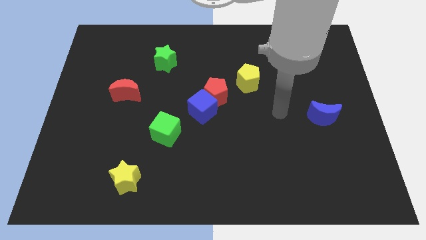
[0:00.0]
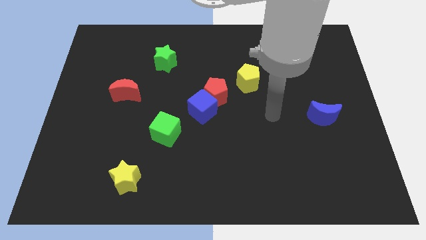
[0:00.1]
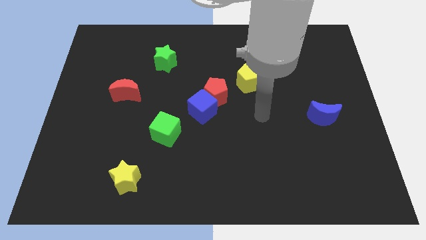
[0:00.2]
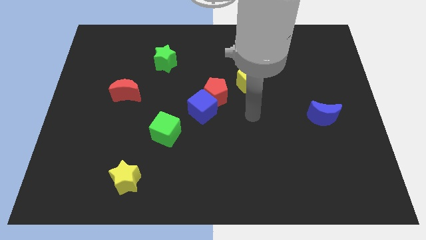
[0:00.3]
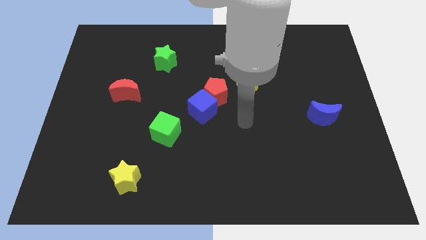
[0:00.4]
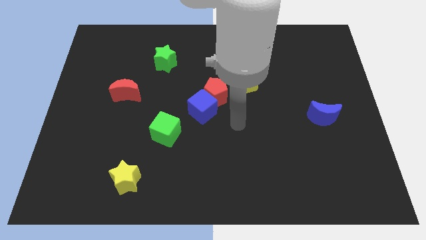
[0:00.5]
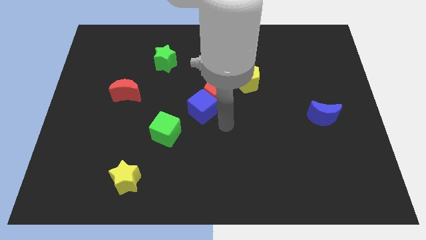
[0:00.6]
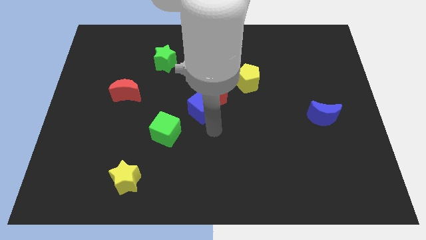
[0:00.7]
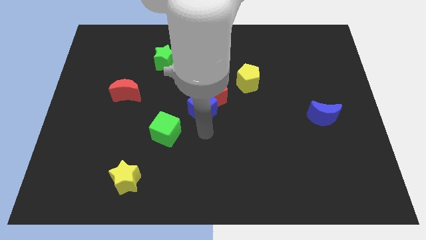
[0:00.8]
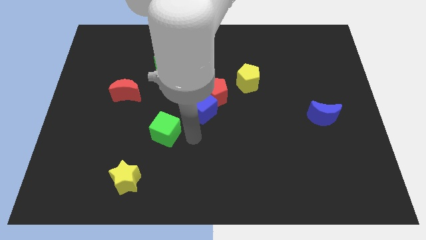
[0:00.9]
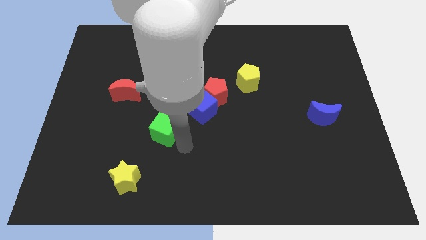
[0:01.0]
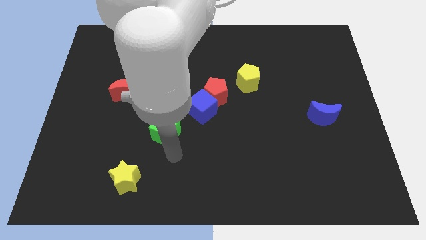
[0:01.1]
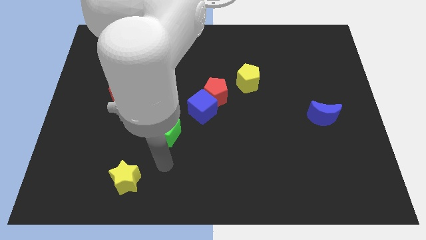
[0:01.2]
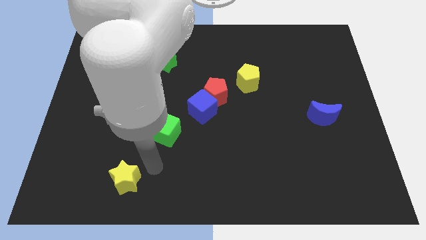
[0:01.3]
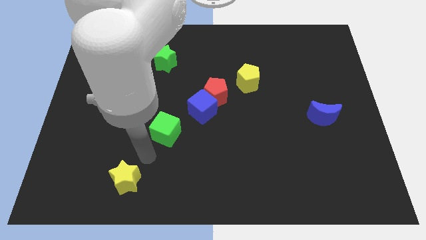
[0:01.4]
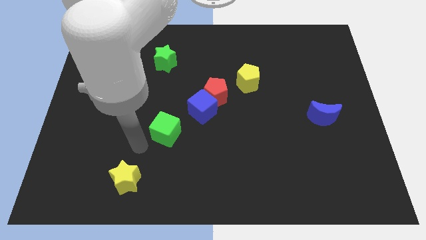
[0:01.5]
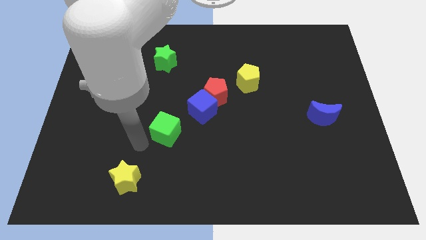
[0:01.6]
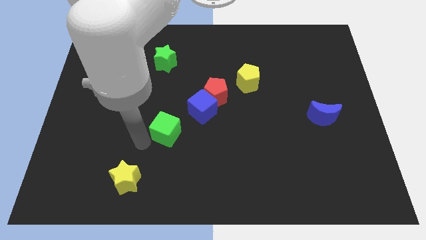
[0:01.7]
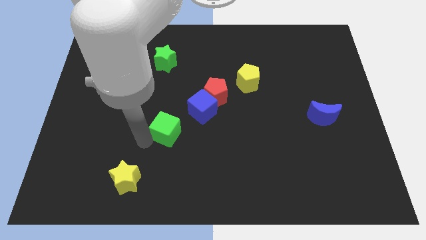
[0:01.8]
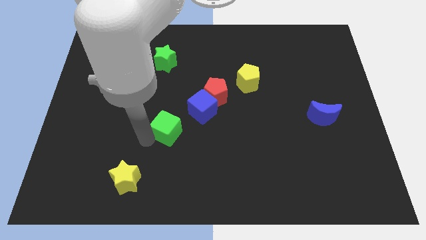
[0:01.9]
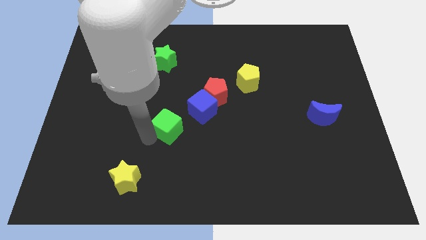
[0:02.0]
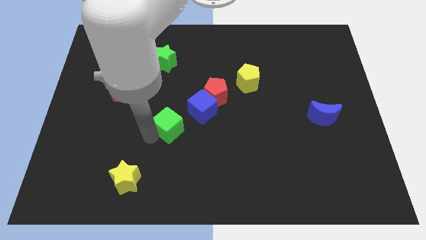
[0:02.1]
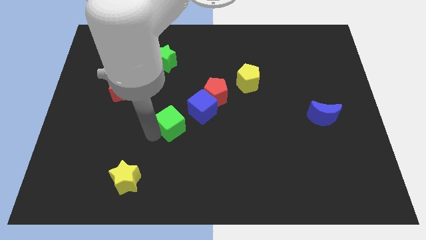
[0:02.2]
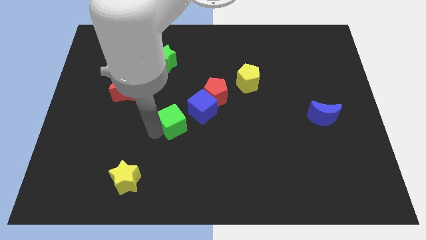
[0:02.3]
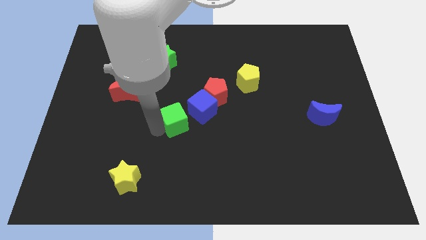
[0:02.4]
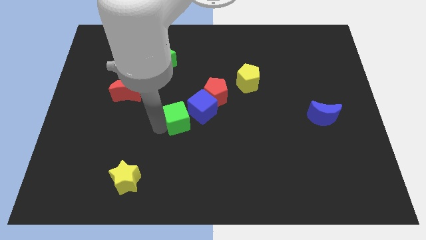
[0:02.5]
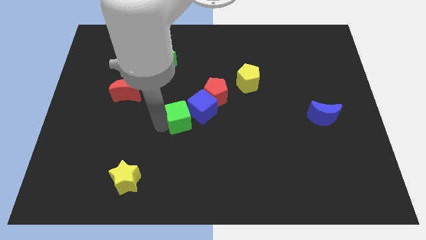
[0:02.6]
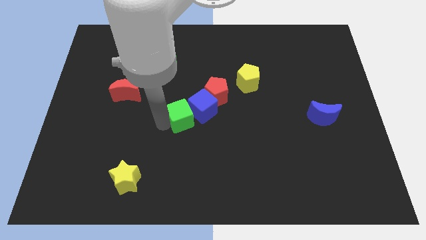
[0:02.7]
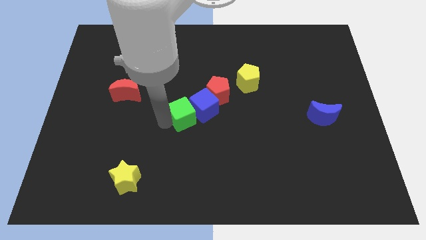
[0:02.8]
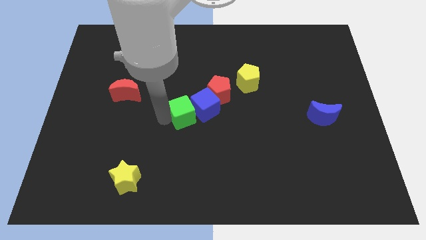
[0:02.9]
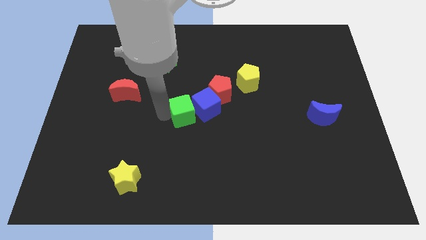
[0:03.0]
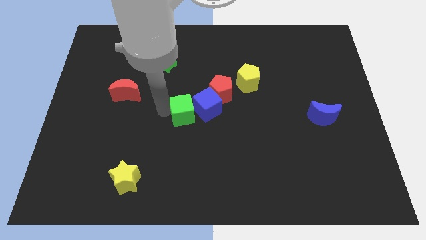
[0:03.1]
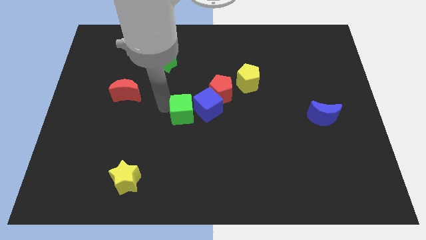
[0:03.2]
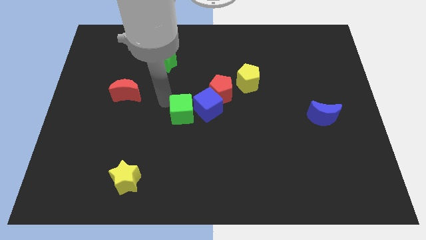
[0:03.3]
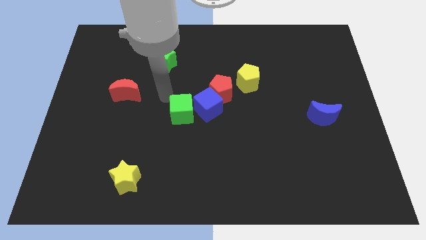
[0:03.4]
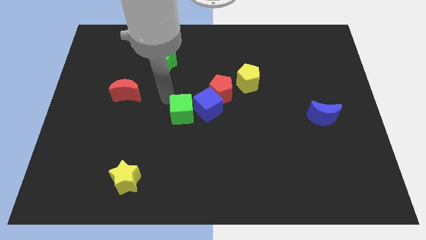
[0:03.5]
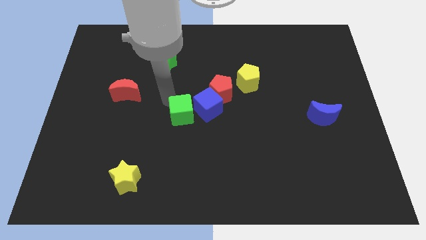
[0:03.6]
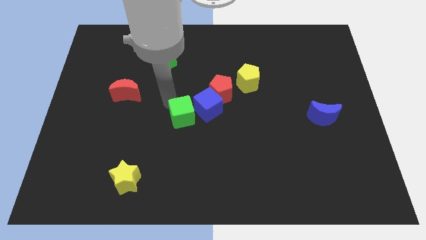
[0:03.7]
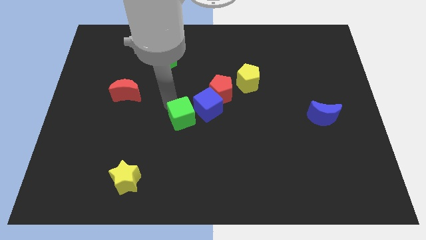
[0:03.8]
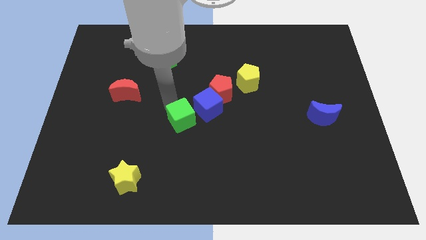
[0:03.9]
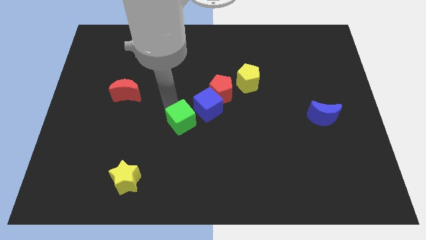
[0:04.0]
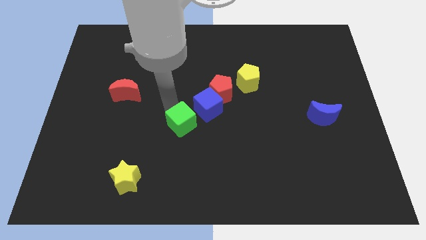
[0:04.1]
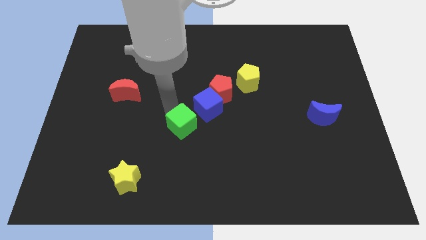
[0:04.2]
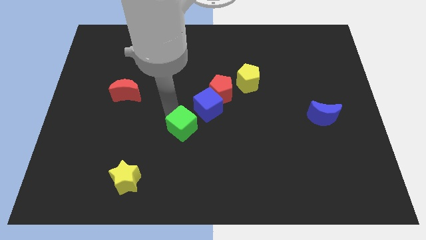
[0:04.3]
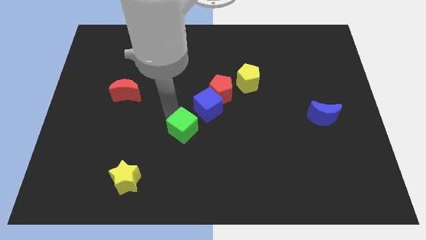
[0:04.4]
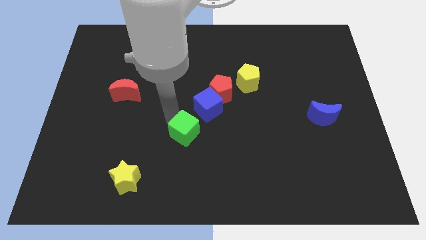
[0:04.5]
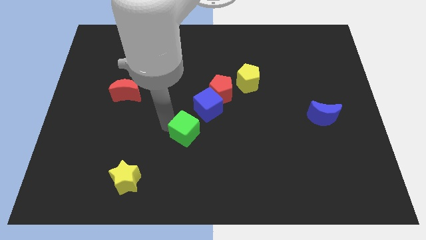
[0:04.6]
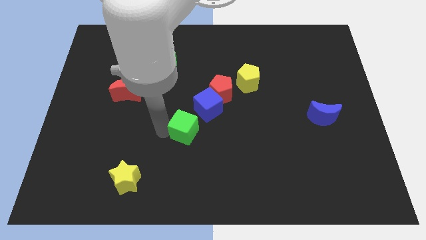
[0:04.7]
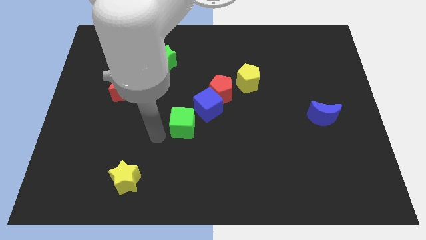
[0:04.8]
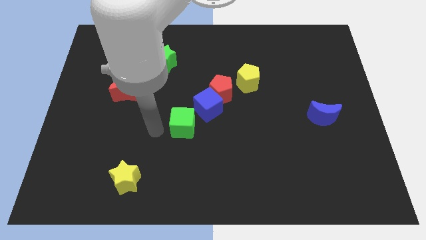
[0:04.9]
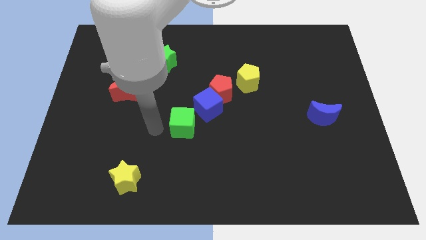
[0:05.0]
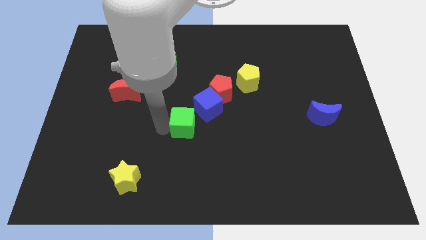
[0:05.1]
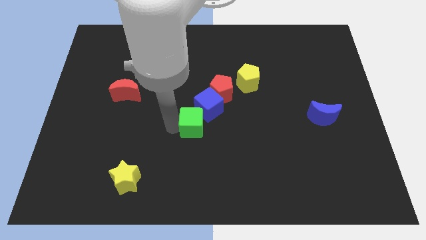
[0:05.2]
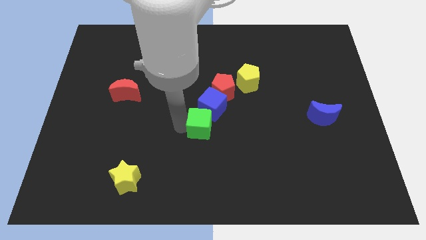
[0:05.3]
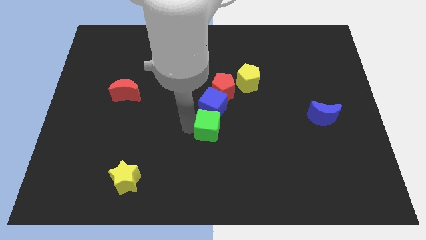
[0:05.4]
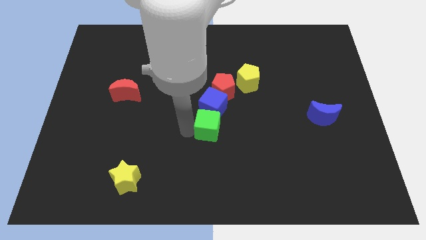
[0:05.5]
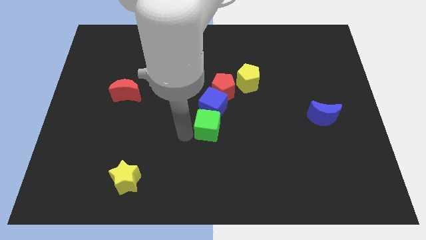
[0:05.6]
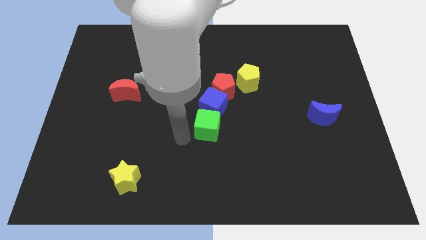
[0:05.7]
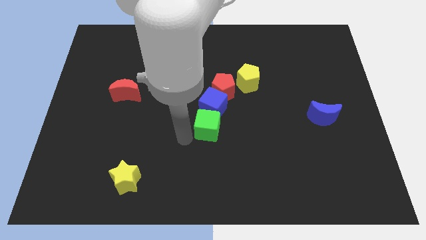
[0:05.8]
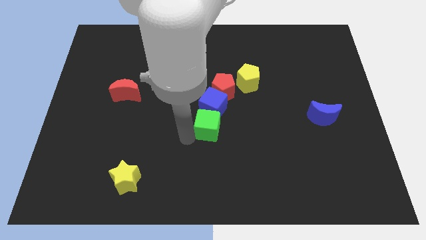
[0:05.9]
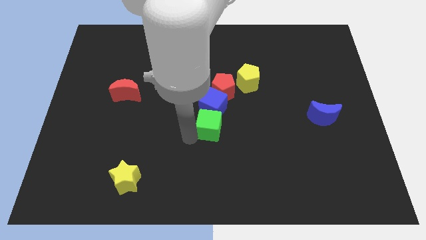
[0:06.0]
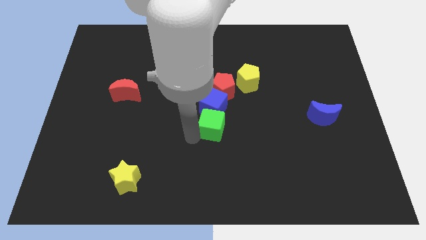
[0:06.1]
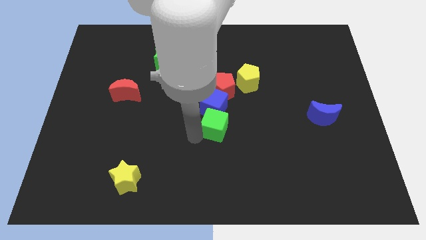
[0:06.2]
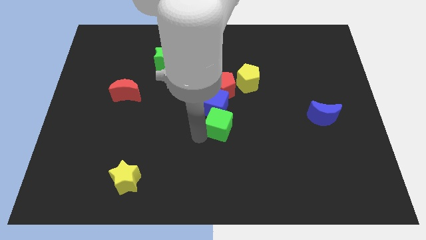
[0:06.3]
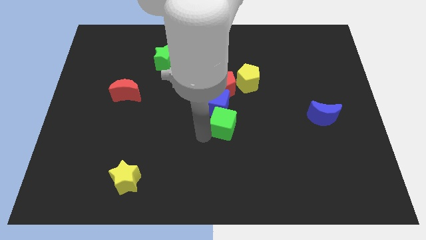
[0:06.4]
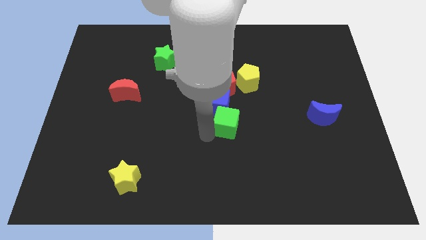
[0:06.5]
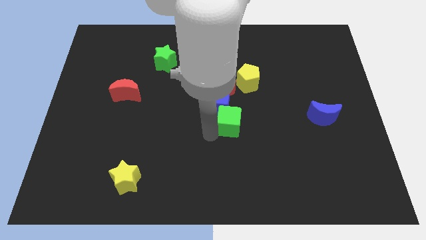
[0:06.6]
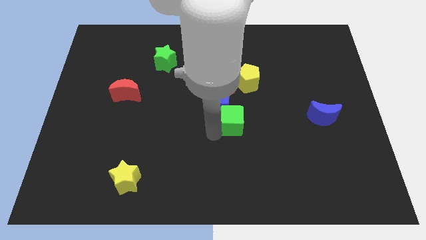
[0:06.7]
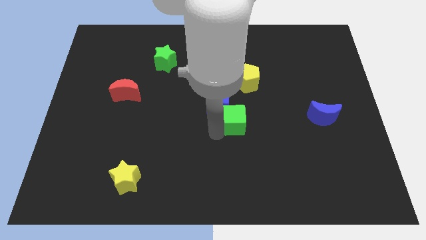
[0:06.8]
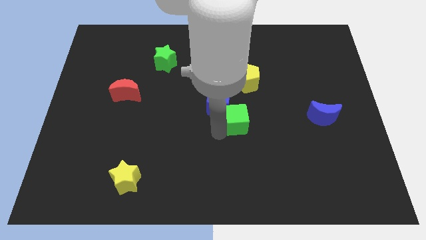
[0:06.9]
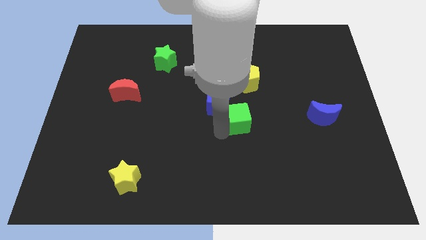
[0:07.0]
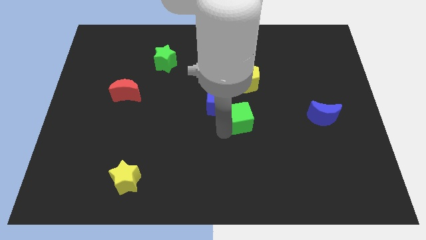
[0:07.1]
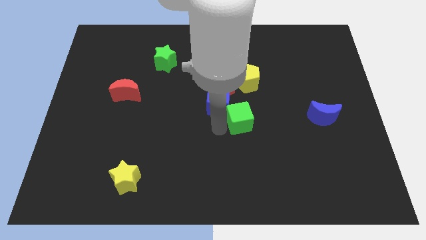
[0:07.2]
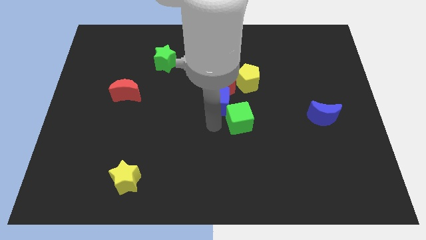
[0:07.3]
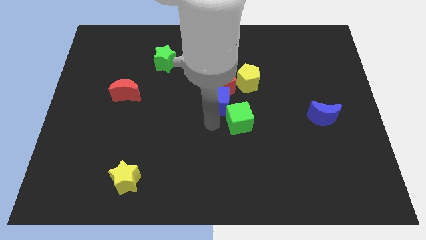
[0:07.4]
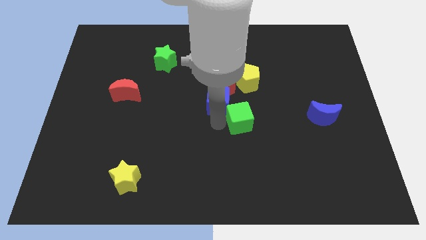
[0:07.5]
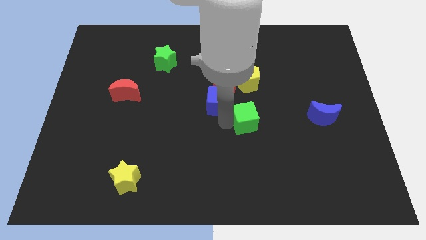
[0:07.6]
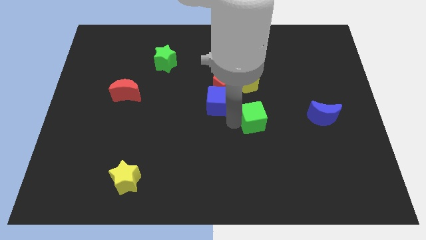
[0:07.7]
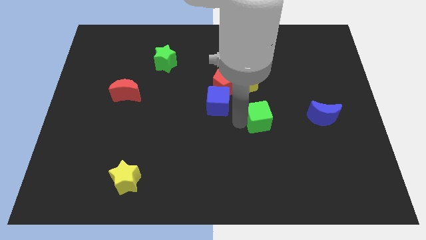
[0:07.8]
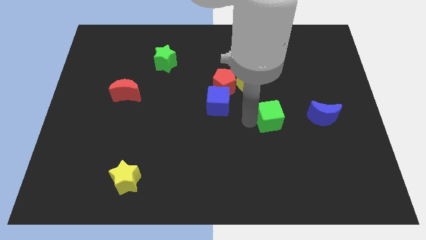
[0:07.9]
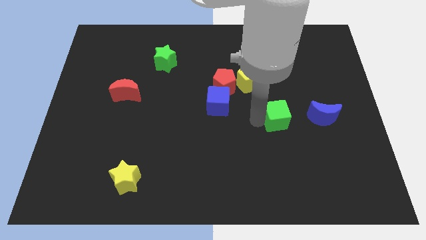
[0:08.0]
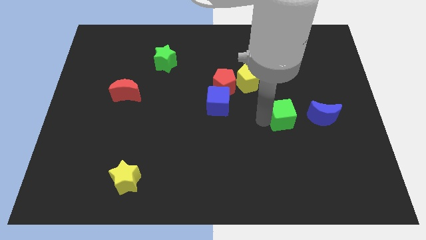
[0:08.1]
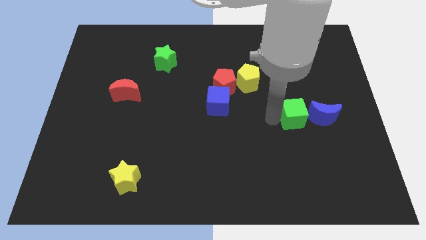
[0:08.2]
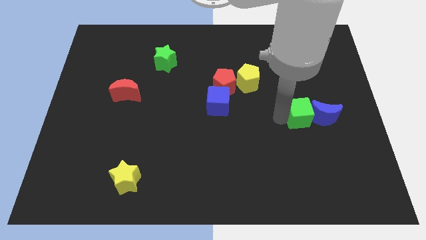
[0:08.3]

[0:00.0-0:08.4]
put the green cube close to the blue moon
